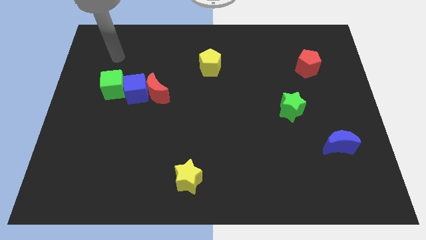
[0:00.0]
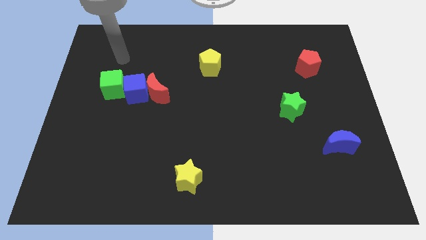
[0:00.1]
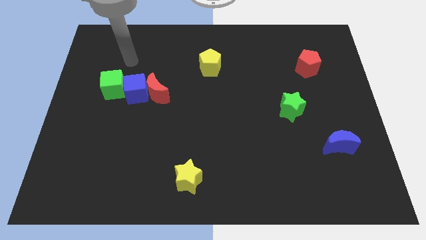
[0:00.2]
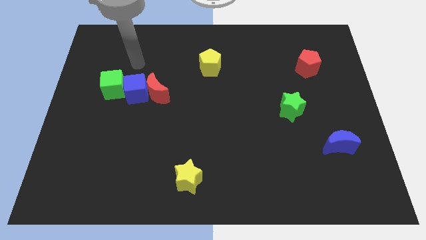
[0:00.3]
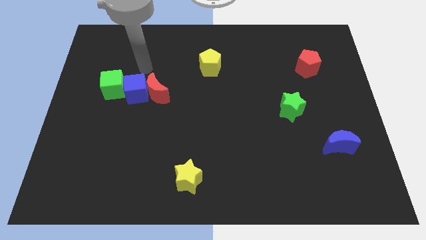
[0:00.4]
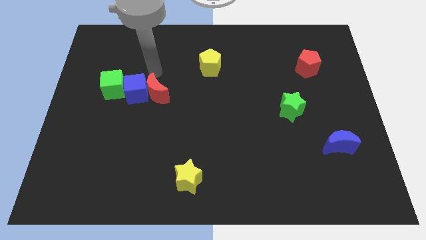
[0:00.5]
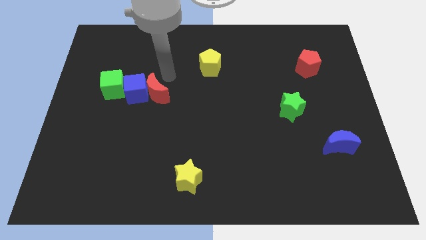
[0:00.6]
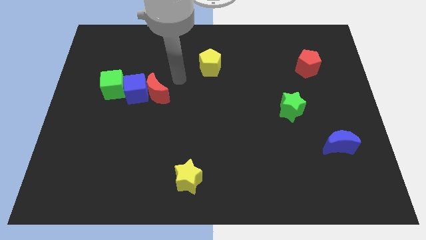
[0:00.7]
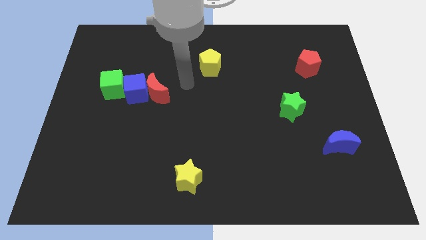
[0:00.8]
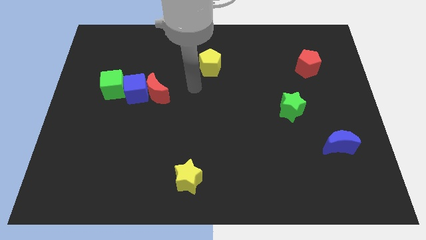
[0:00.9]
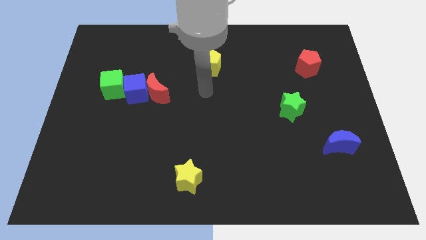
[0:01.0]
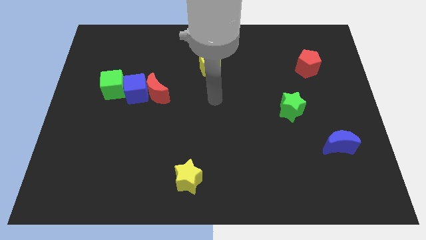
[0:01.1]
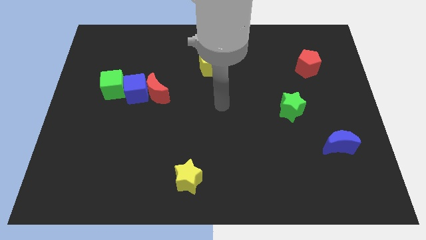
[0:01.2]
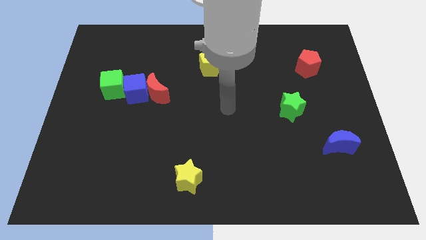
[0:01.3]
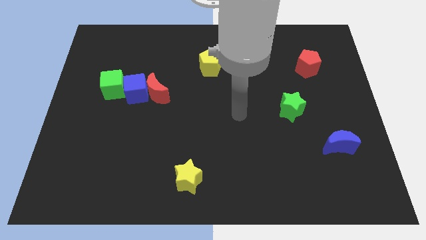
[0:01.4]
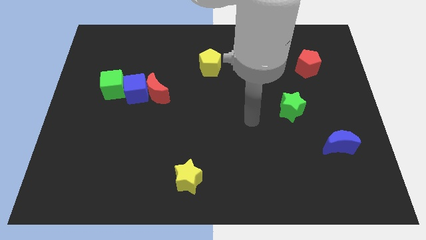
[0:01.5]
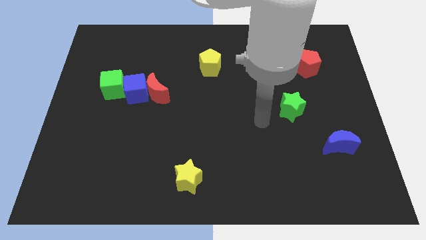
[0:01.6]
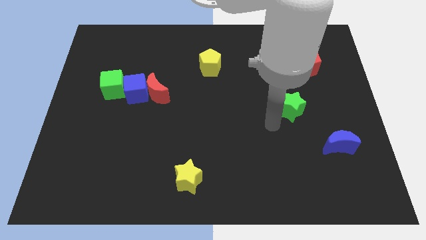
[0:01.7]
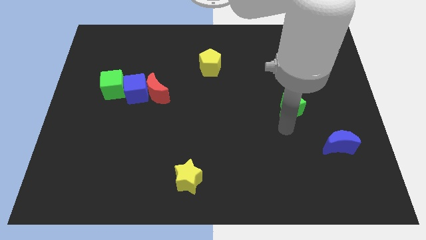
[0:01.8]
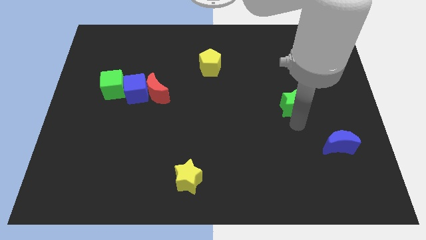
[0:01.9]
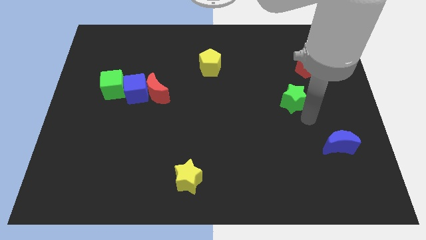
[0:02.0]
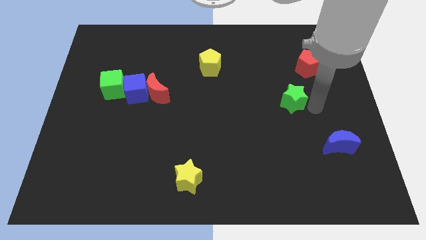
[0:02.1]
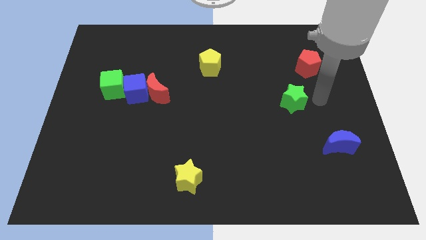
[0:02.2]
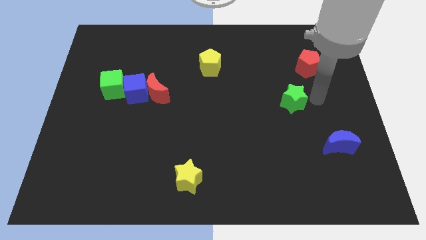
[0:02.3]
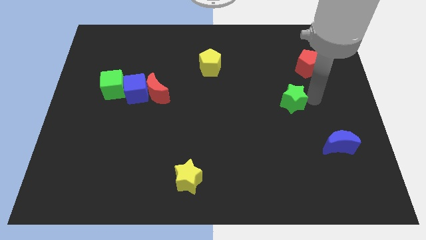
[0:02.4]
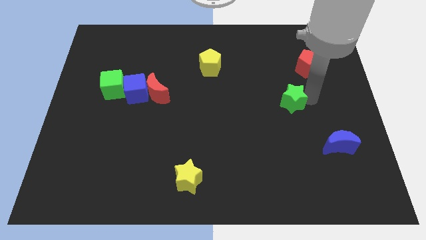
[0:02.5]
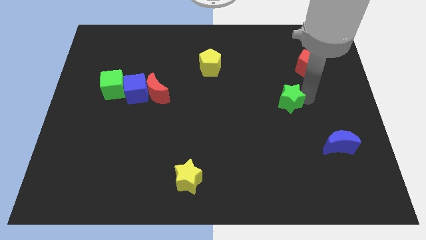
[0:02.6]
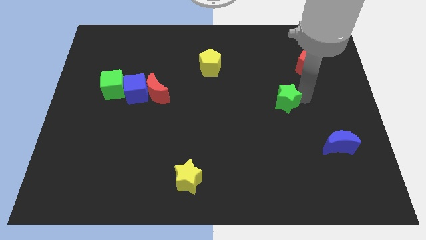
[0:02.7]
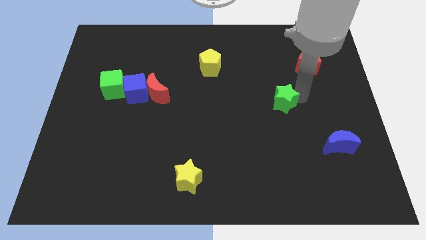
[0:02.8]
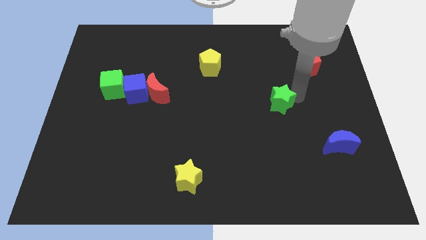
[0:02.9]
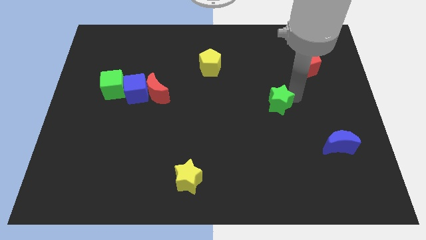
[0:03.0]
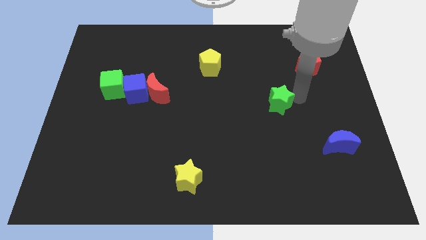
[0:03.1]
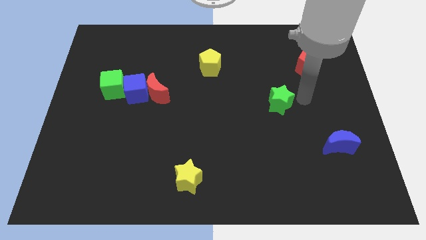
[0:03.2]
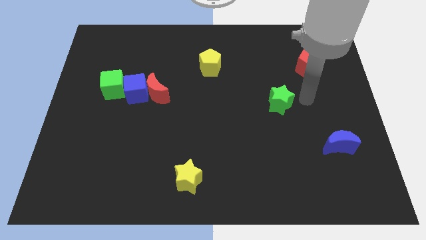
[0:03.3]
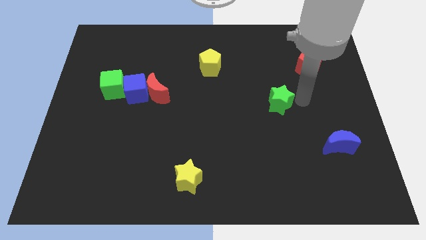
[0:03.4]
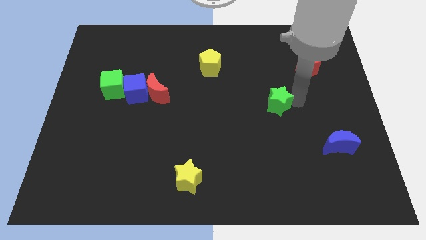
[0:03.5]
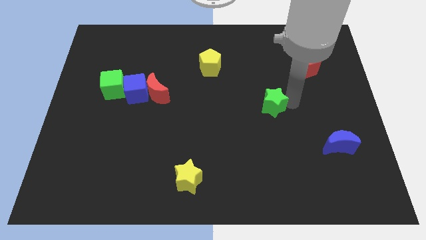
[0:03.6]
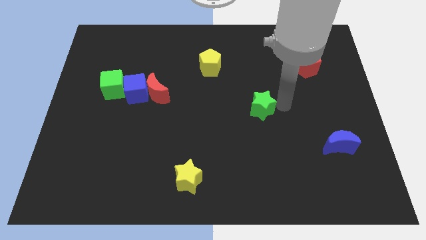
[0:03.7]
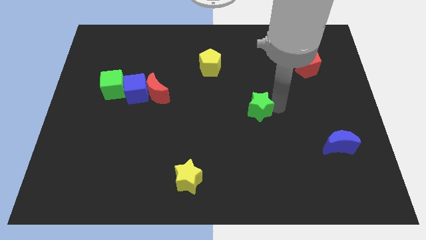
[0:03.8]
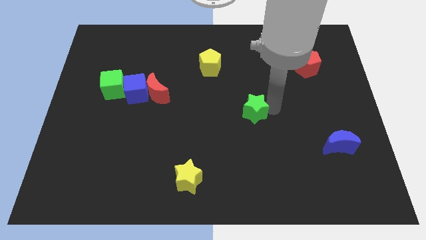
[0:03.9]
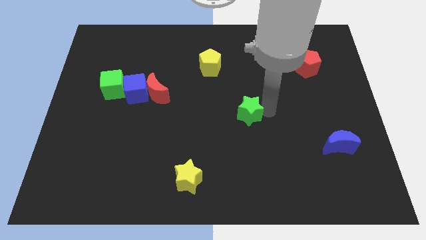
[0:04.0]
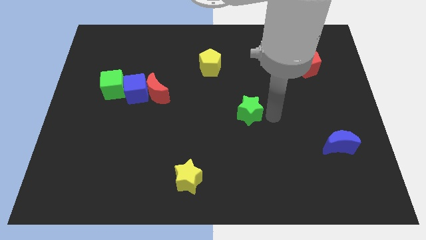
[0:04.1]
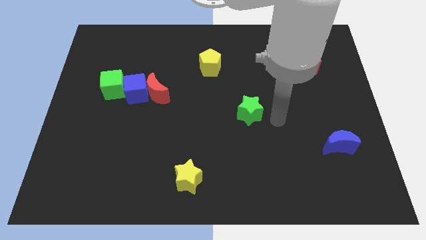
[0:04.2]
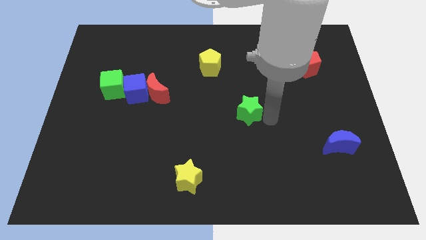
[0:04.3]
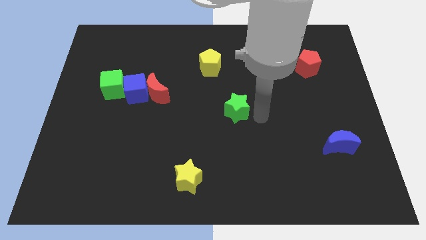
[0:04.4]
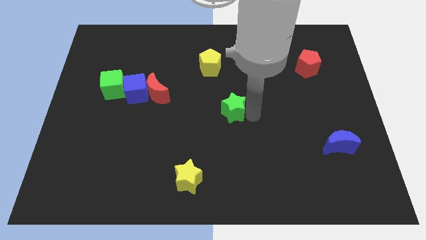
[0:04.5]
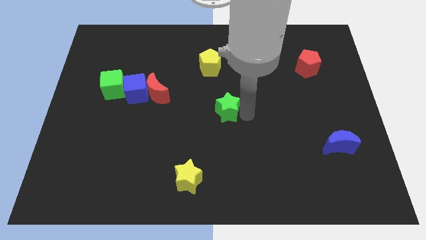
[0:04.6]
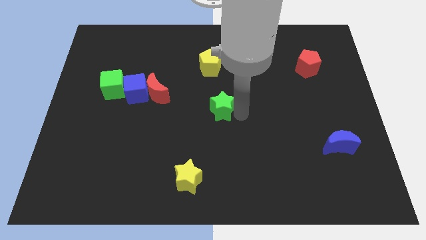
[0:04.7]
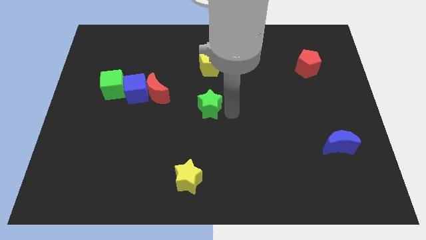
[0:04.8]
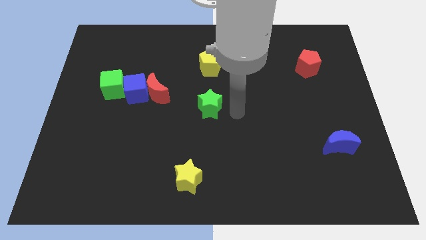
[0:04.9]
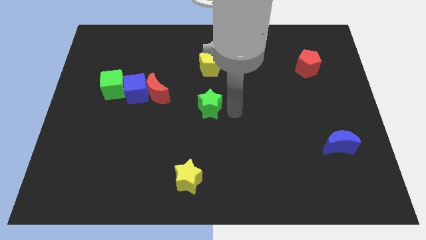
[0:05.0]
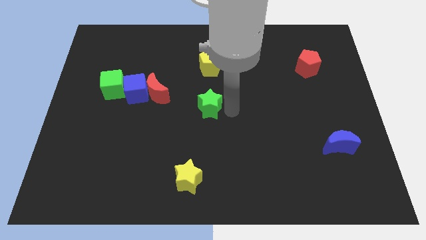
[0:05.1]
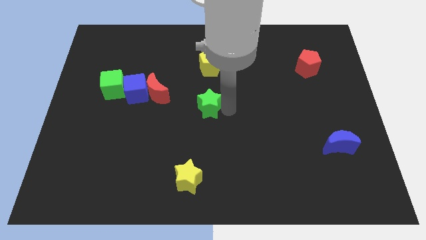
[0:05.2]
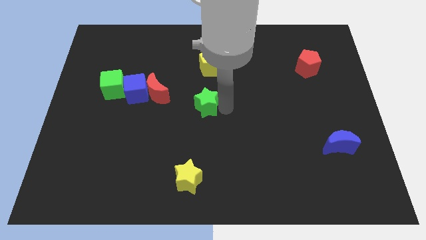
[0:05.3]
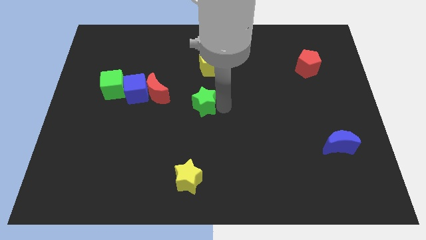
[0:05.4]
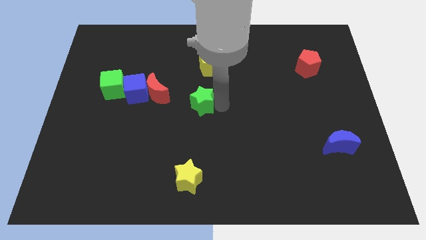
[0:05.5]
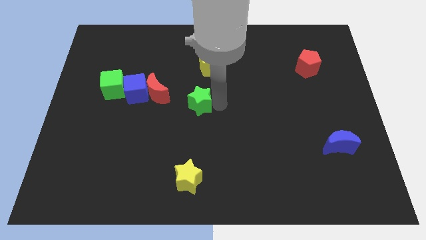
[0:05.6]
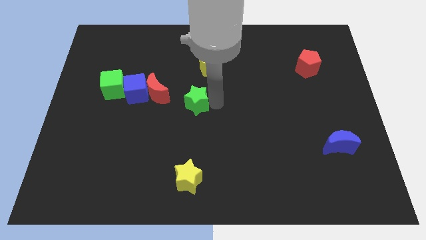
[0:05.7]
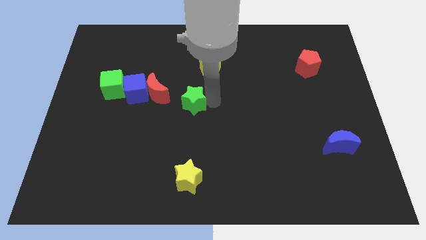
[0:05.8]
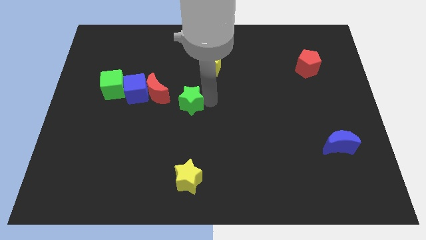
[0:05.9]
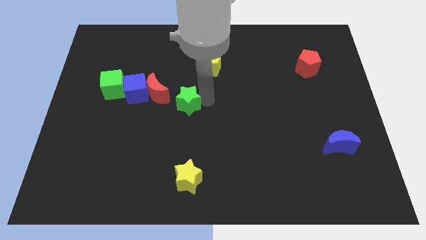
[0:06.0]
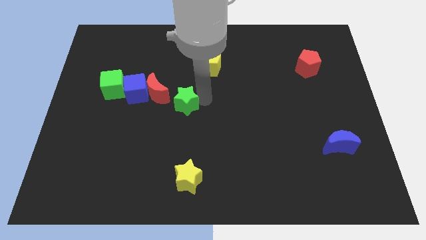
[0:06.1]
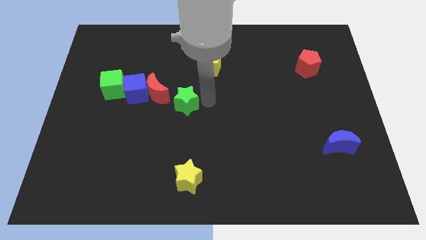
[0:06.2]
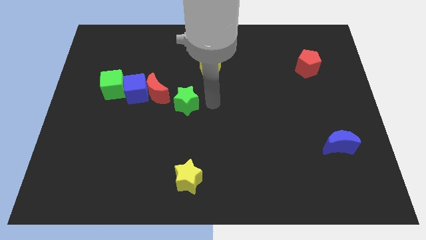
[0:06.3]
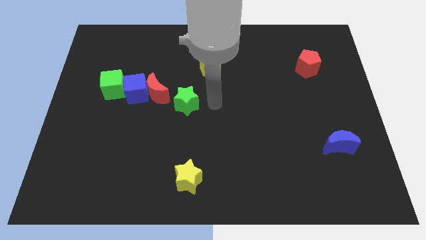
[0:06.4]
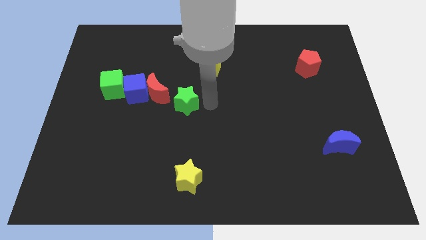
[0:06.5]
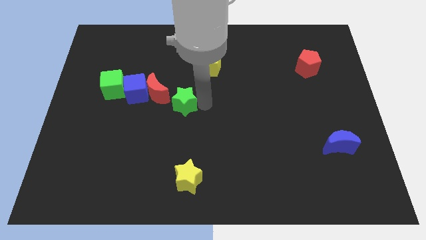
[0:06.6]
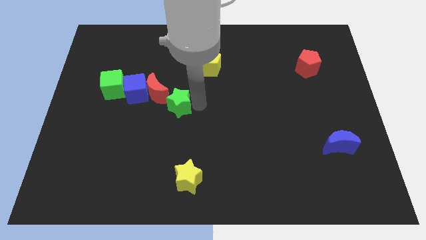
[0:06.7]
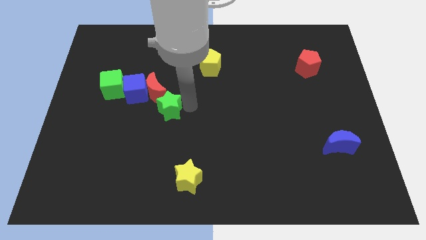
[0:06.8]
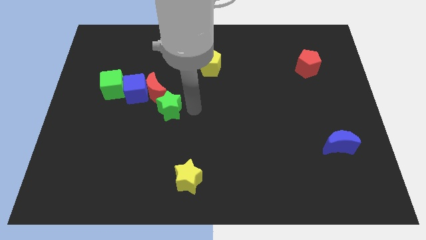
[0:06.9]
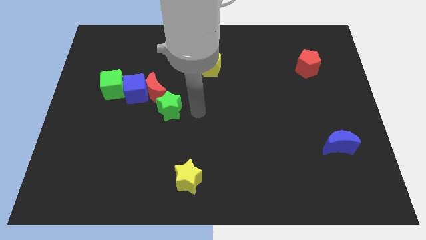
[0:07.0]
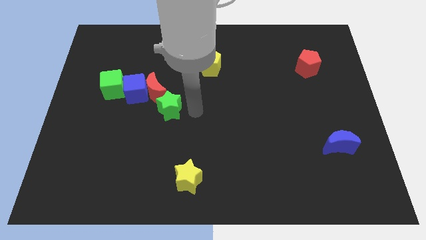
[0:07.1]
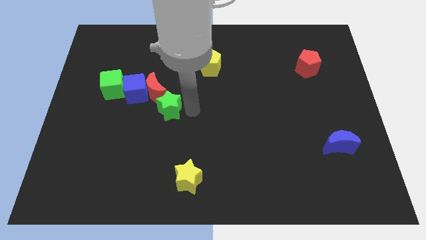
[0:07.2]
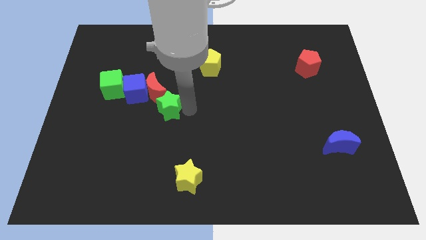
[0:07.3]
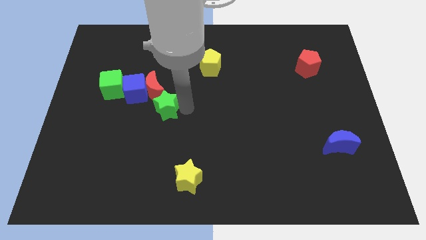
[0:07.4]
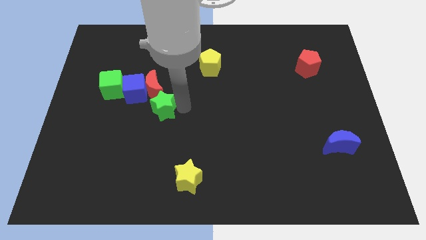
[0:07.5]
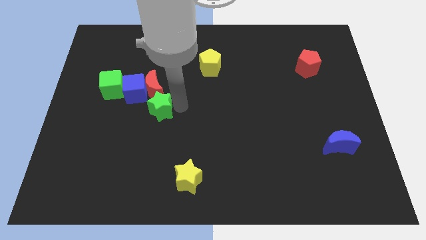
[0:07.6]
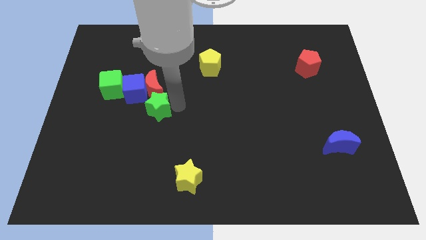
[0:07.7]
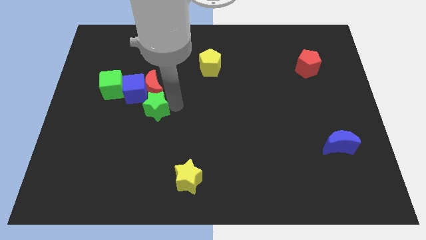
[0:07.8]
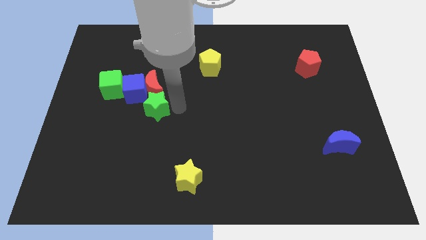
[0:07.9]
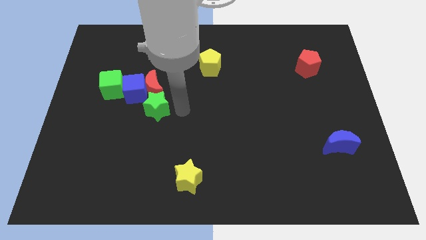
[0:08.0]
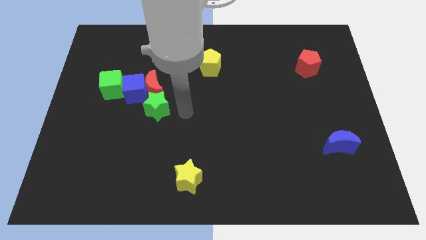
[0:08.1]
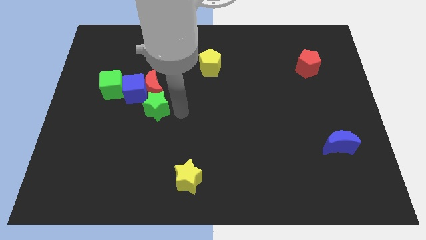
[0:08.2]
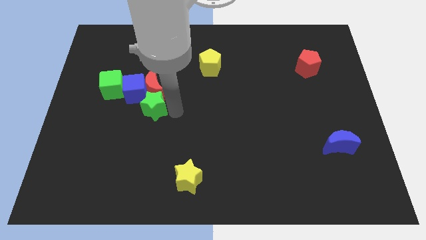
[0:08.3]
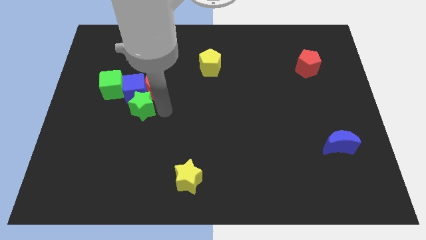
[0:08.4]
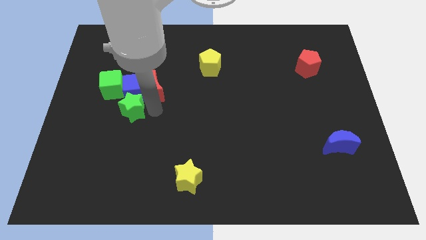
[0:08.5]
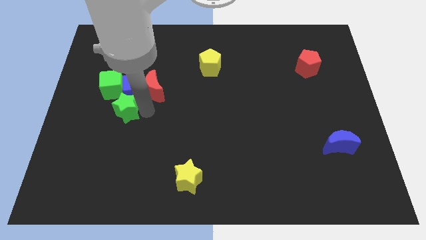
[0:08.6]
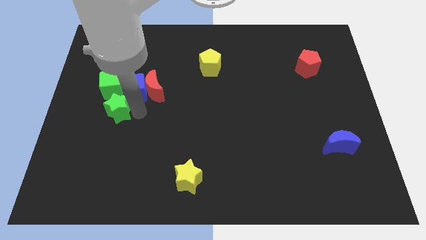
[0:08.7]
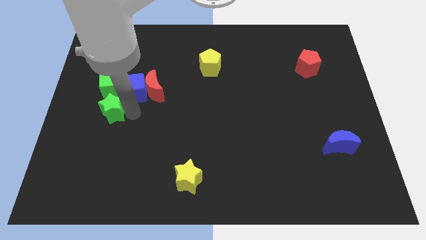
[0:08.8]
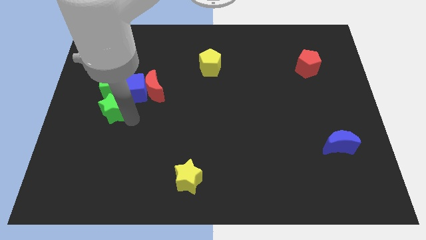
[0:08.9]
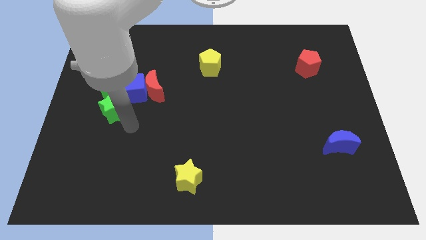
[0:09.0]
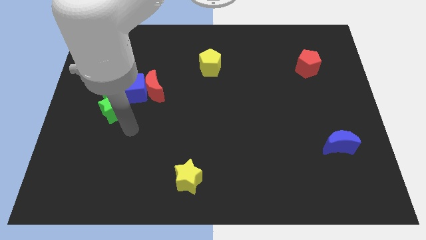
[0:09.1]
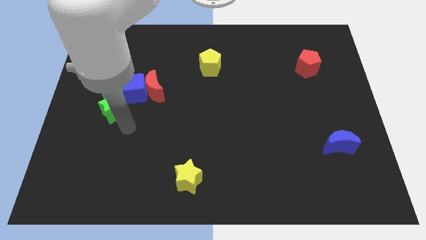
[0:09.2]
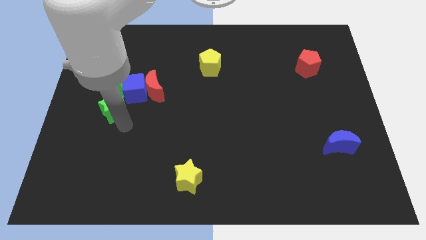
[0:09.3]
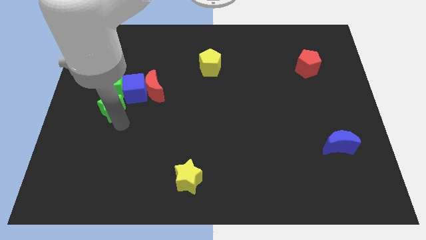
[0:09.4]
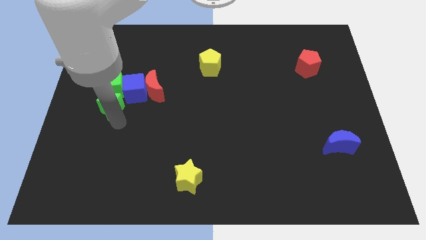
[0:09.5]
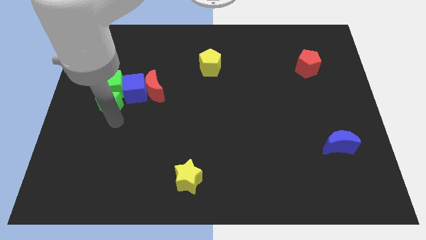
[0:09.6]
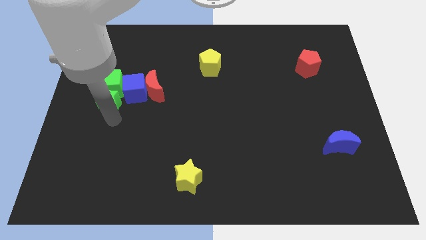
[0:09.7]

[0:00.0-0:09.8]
put the green star to the left side of the red moon
